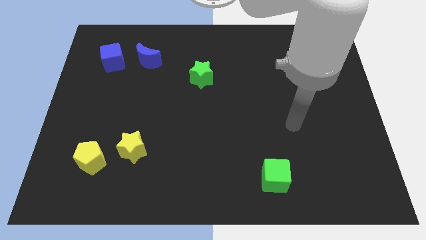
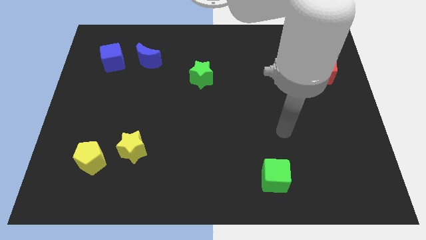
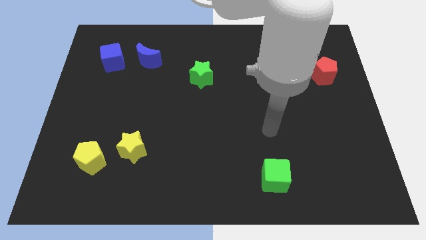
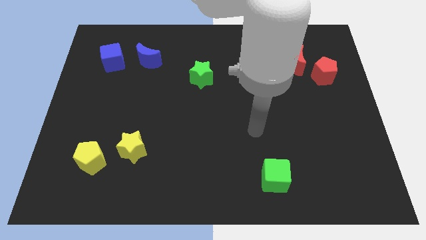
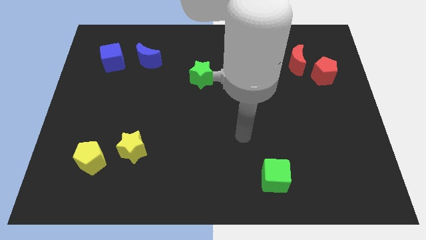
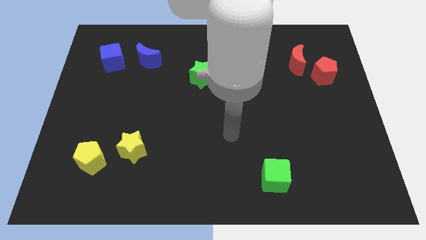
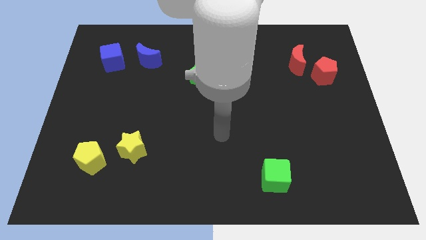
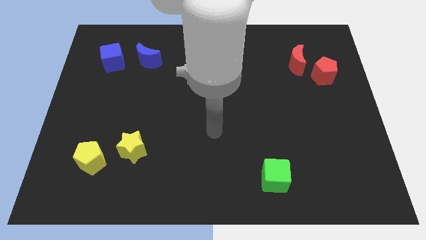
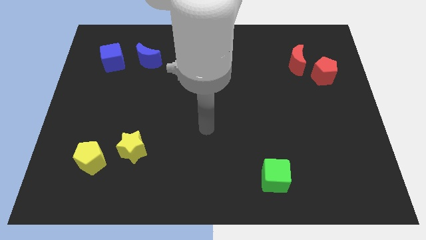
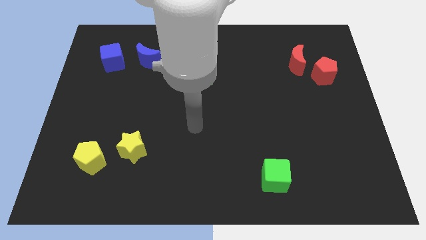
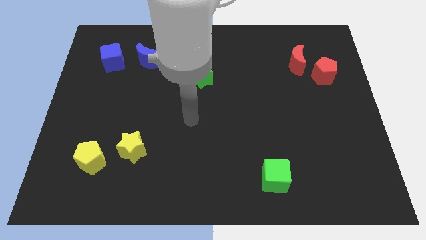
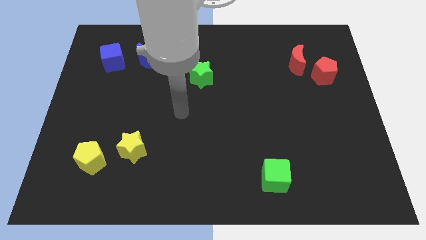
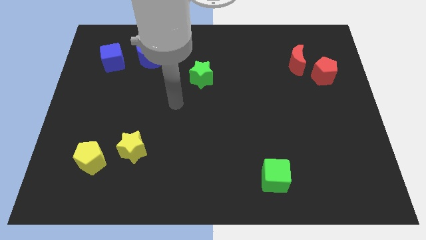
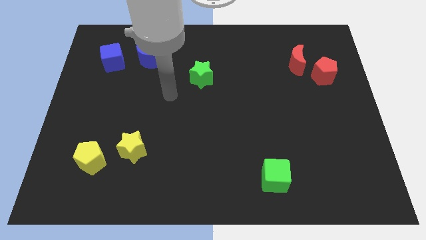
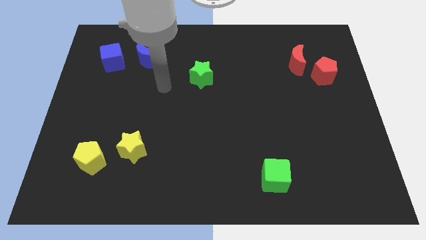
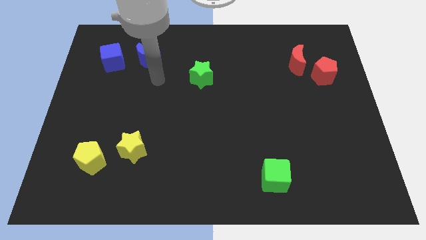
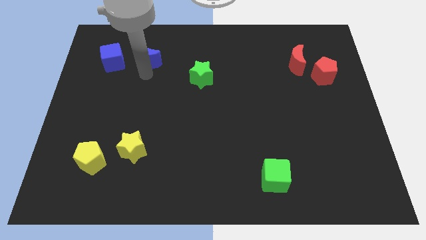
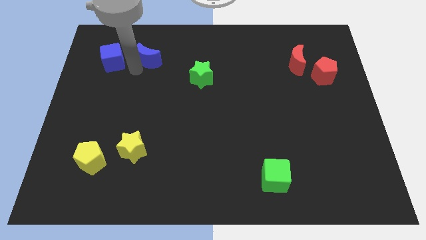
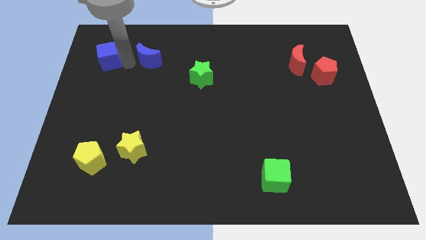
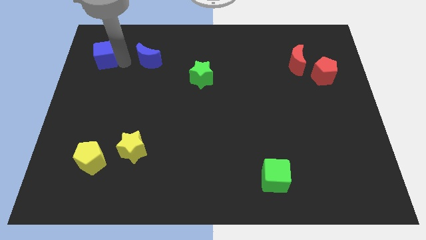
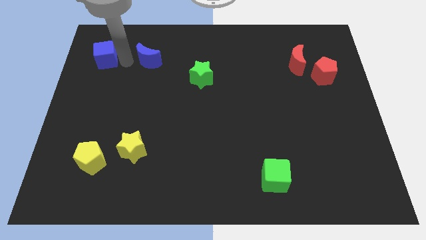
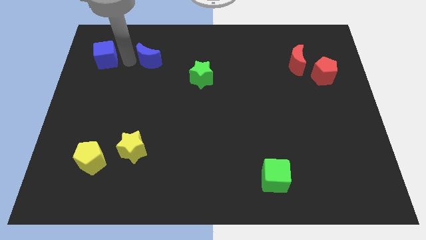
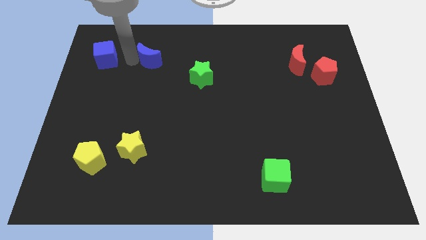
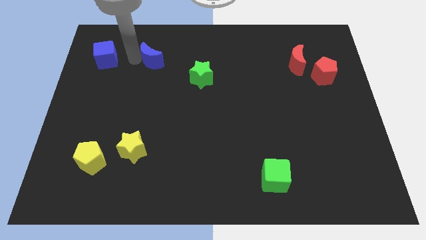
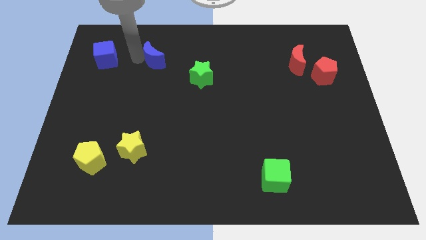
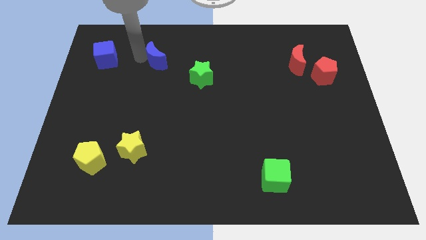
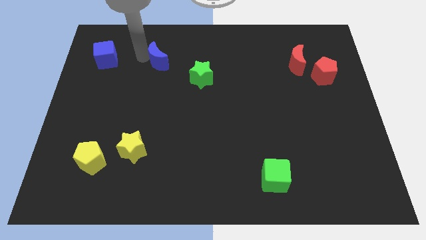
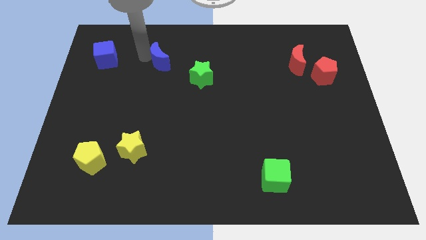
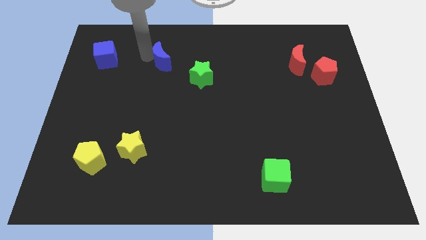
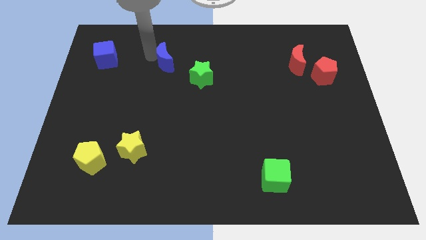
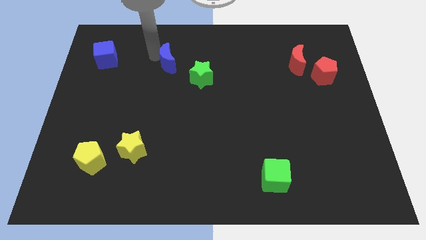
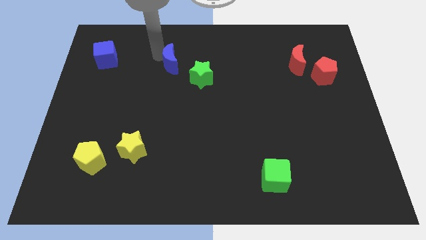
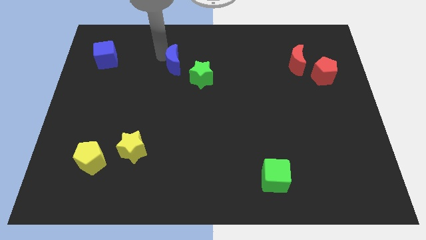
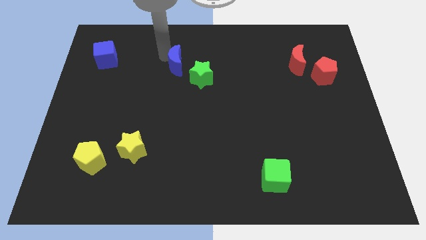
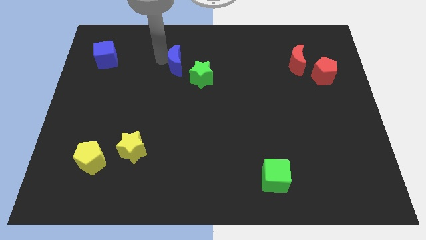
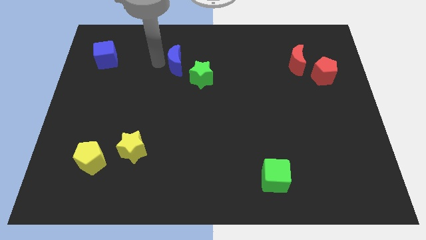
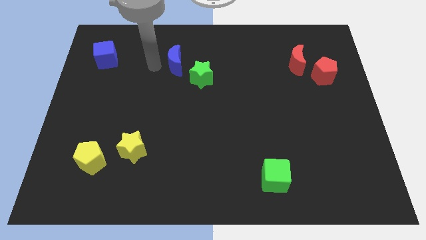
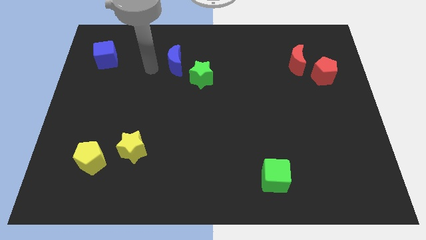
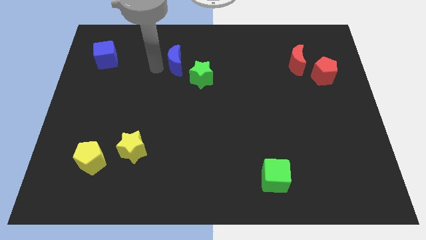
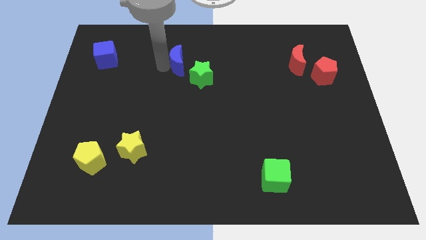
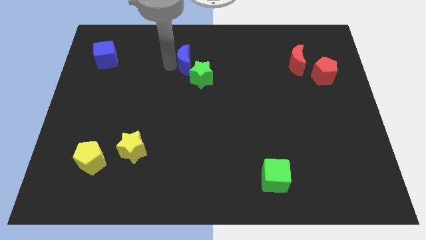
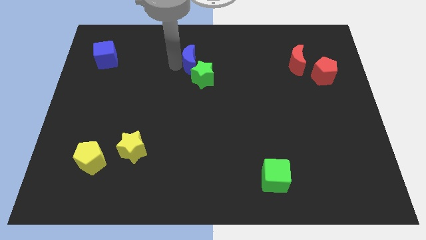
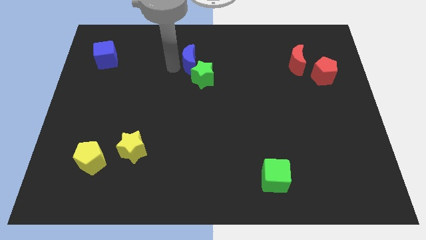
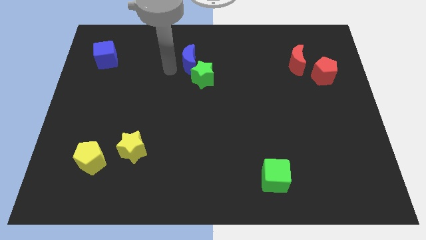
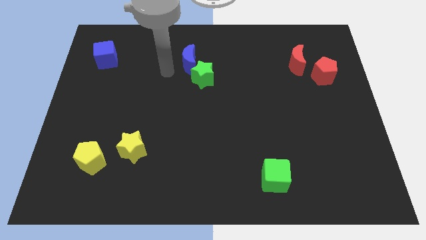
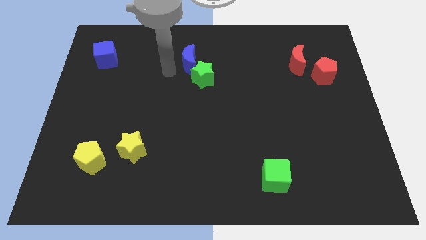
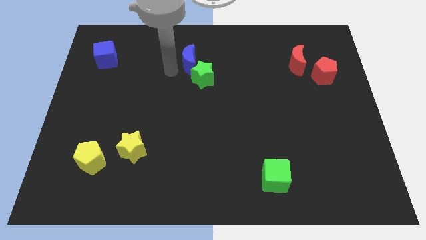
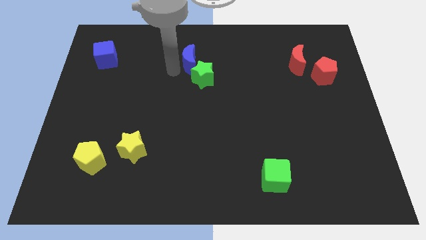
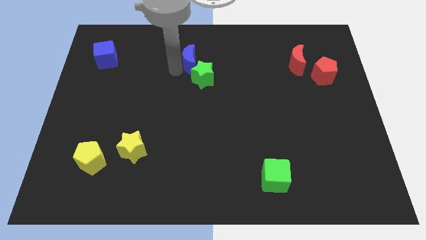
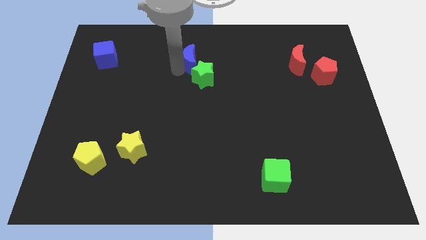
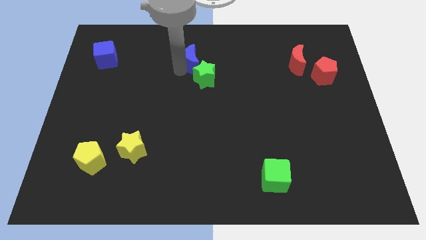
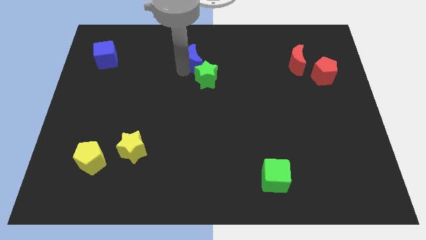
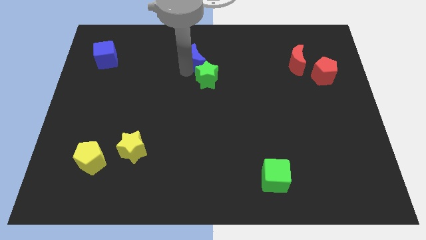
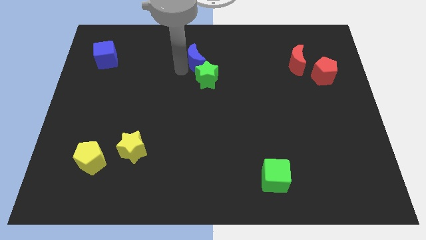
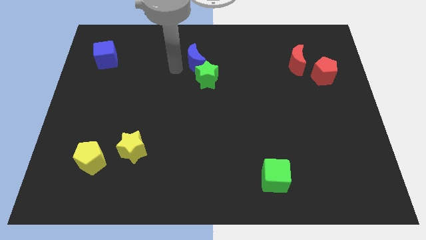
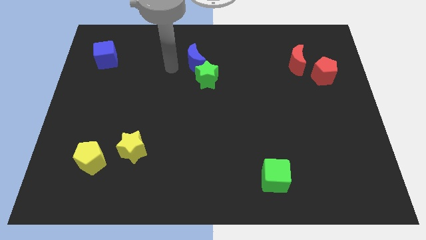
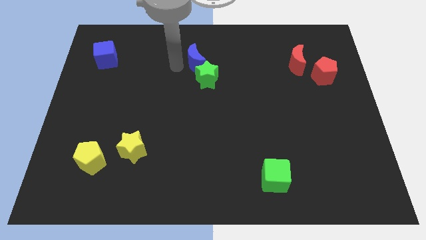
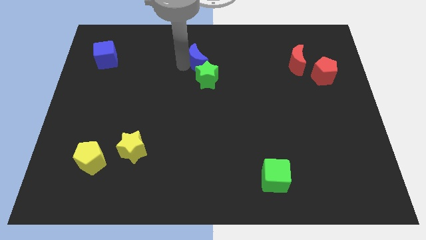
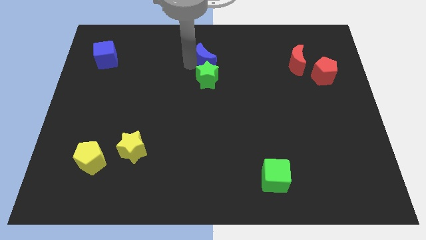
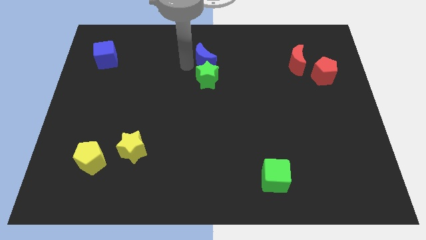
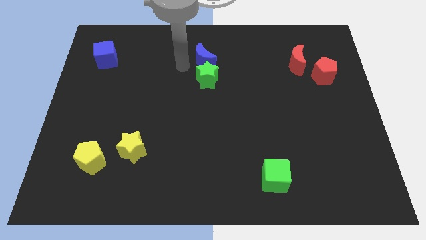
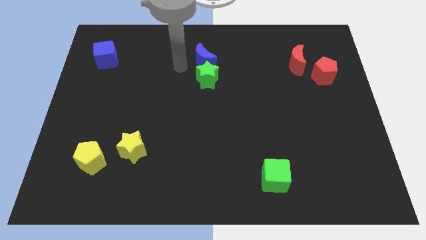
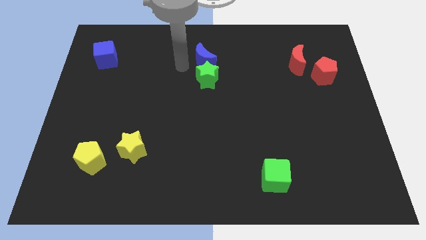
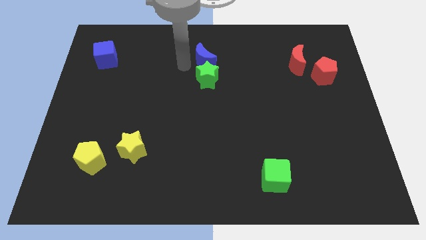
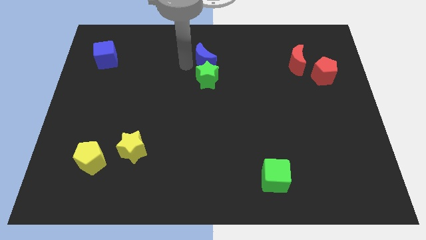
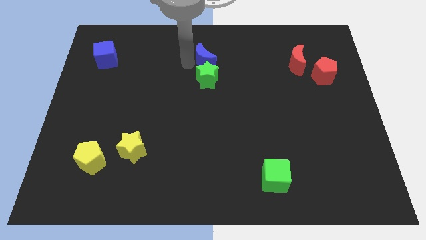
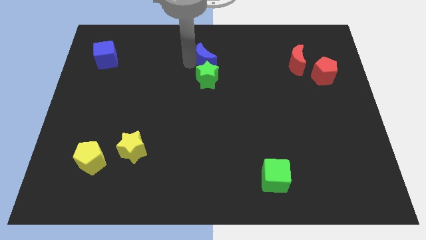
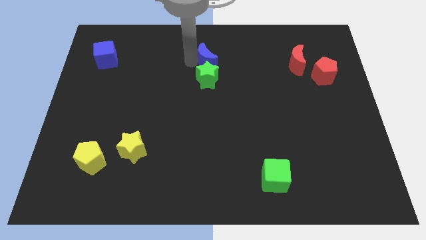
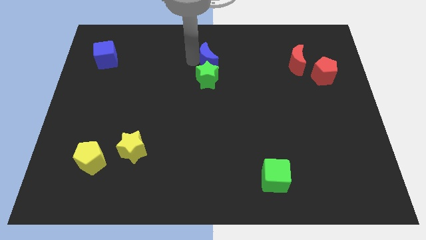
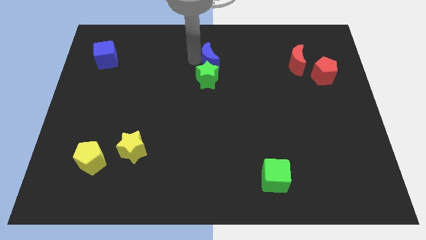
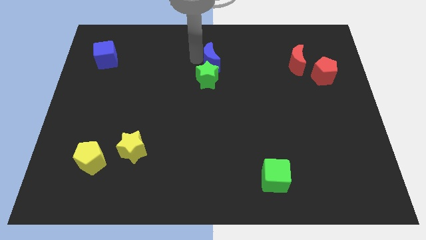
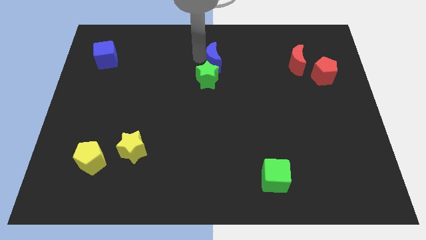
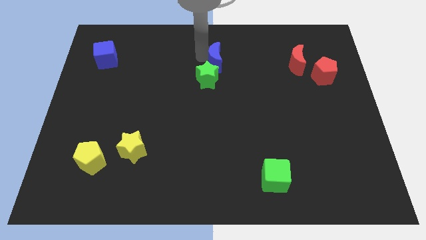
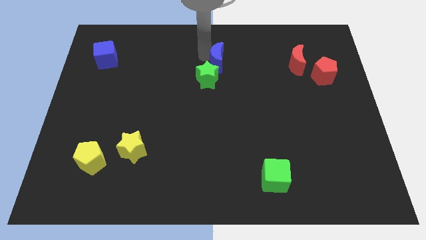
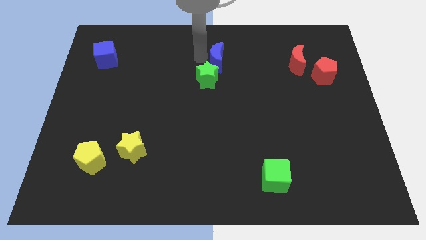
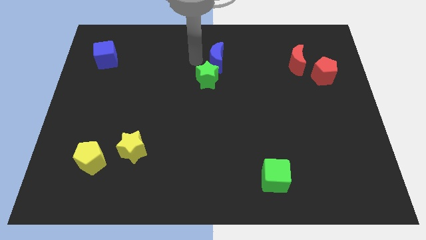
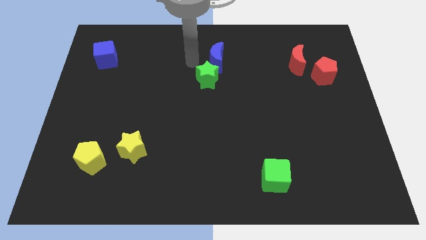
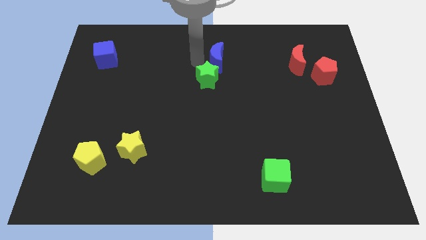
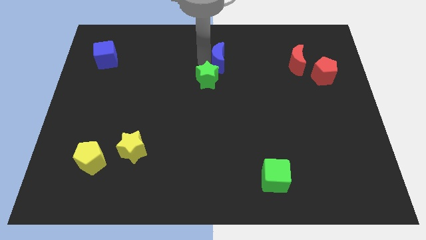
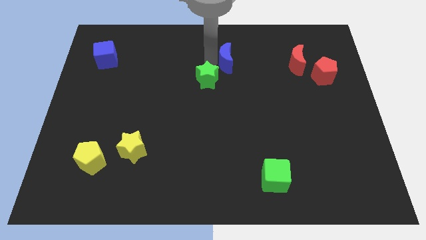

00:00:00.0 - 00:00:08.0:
push the blue moon to the right
